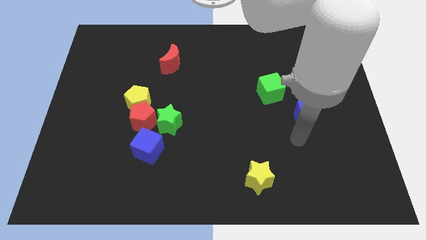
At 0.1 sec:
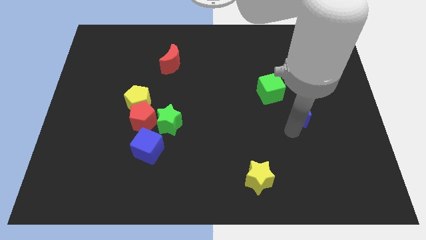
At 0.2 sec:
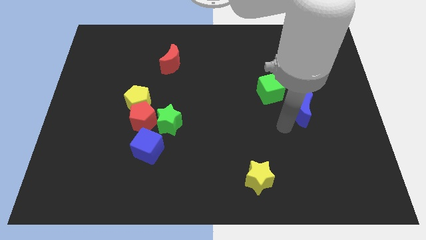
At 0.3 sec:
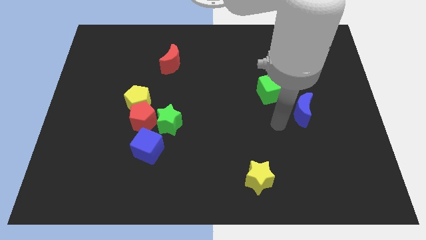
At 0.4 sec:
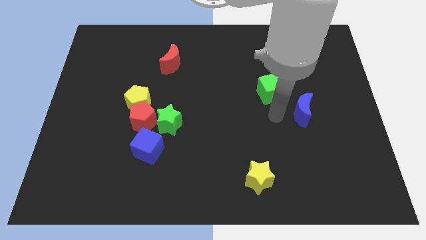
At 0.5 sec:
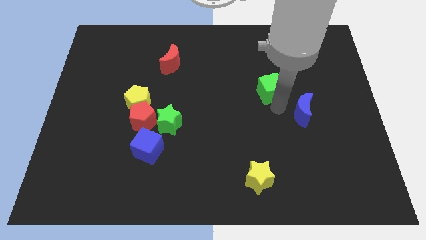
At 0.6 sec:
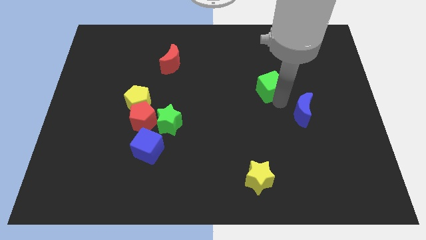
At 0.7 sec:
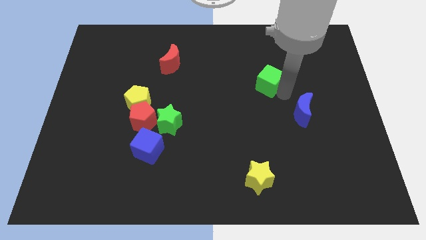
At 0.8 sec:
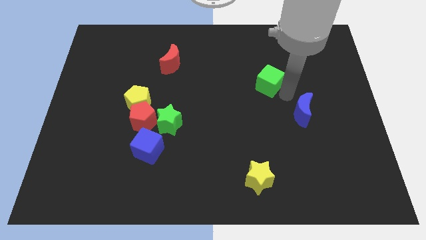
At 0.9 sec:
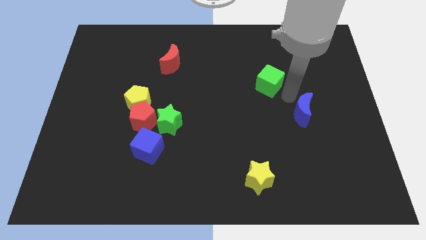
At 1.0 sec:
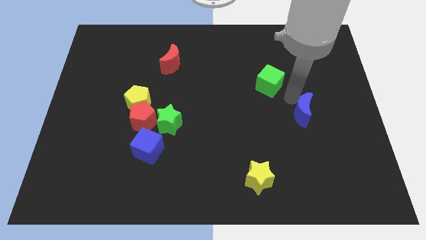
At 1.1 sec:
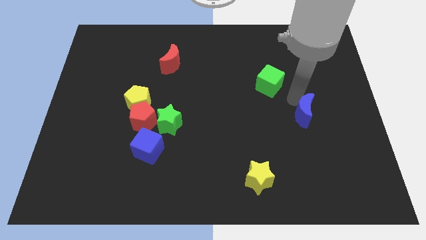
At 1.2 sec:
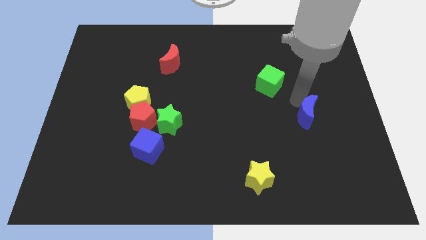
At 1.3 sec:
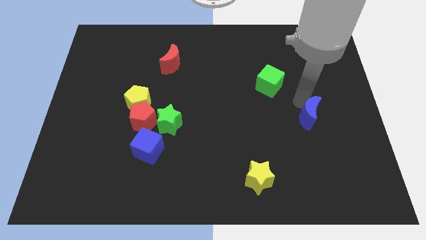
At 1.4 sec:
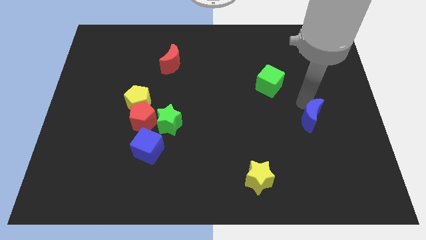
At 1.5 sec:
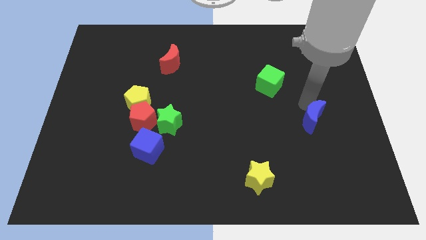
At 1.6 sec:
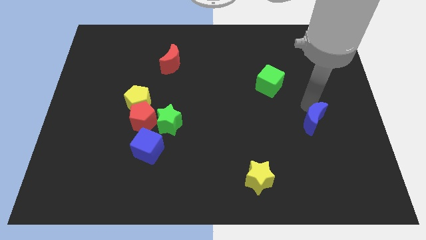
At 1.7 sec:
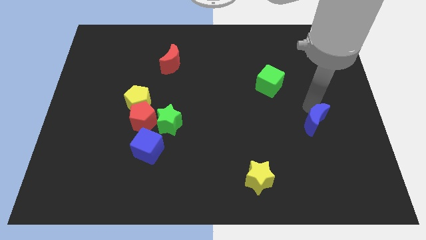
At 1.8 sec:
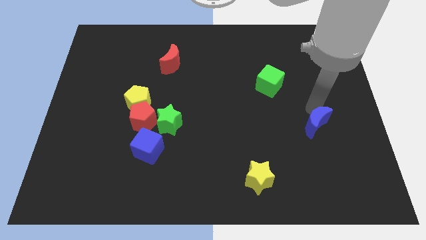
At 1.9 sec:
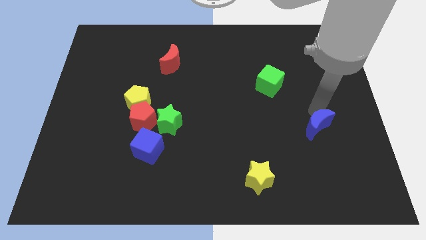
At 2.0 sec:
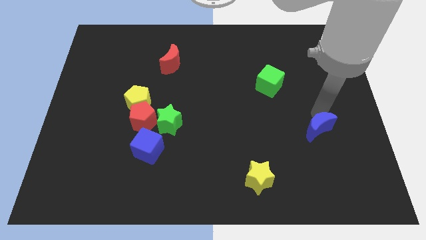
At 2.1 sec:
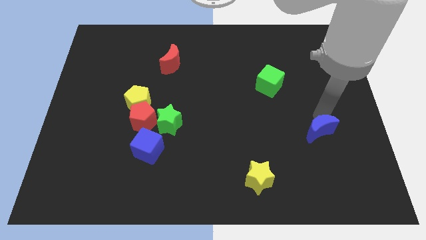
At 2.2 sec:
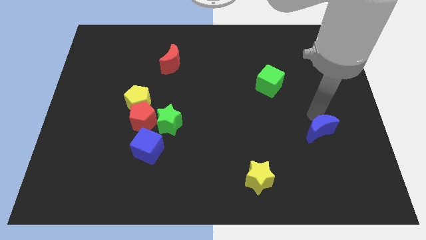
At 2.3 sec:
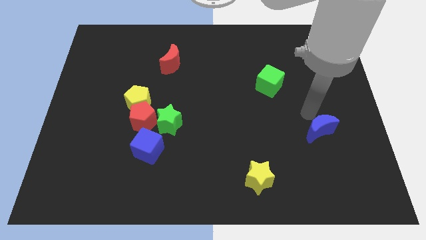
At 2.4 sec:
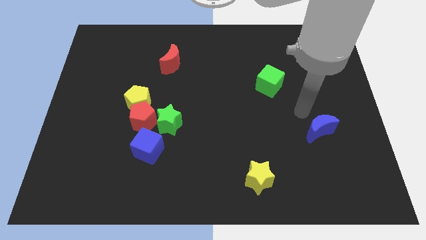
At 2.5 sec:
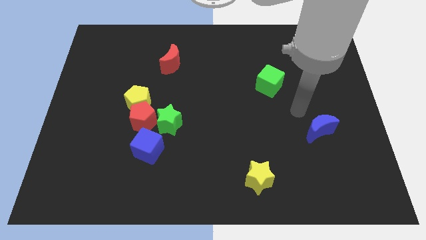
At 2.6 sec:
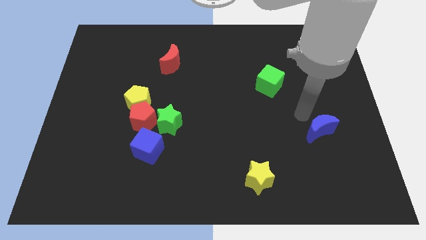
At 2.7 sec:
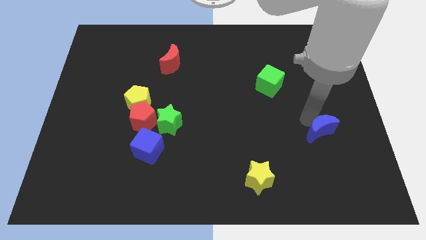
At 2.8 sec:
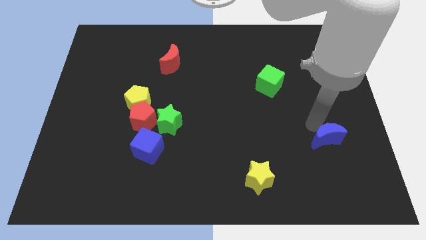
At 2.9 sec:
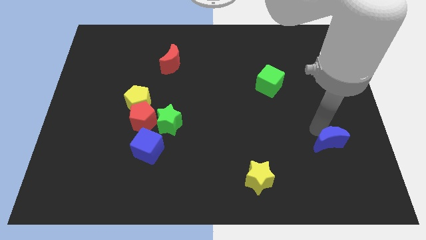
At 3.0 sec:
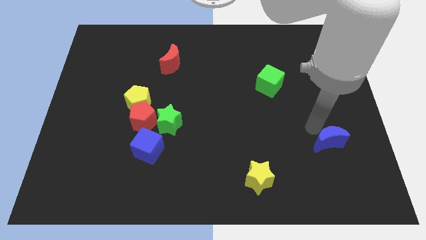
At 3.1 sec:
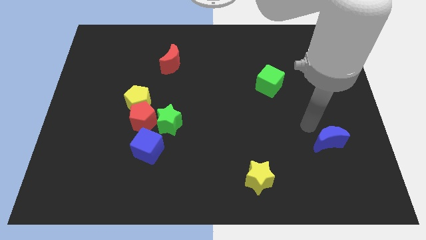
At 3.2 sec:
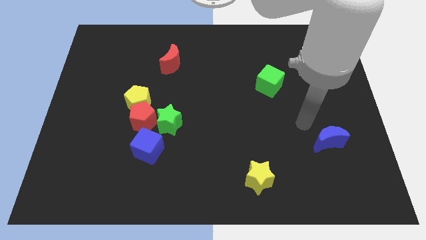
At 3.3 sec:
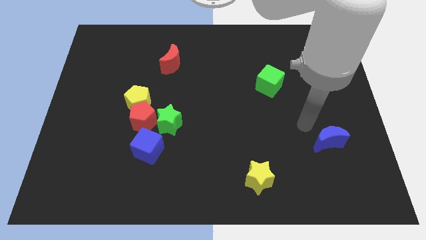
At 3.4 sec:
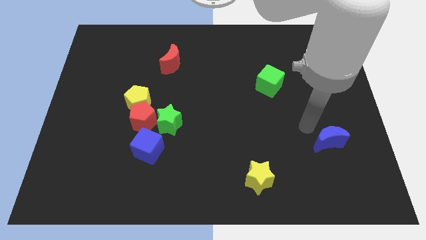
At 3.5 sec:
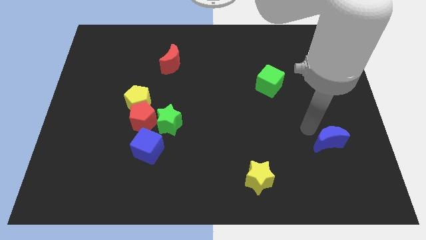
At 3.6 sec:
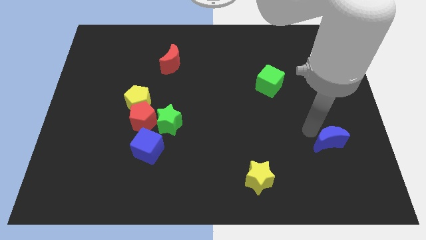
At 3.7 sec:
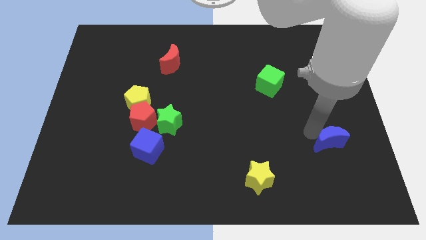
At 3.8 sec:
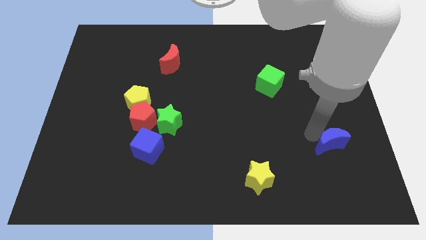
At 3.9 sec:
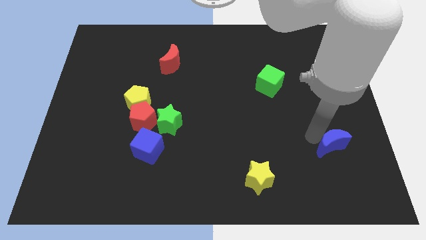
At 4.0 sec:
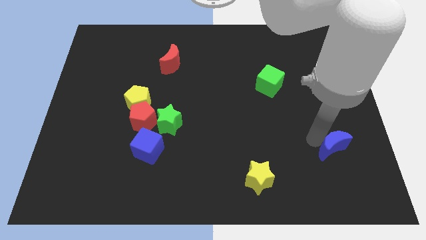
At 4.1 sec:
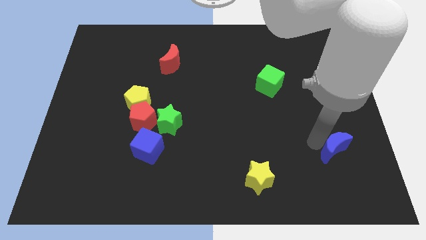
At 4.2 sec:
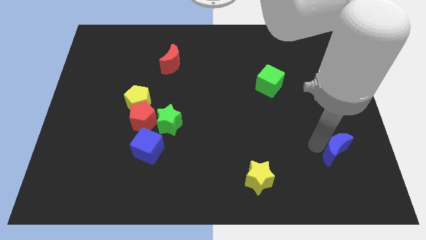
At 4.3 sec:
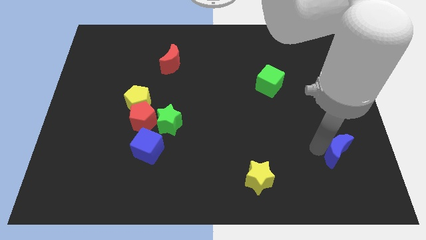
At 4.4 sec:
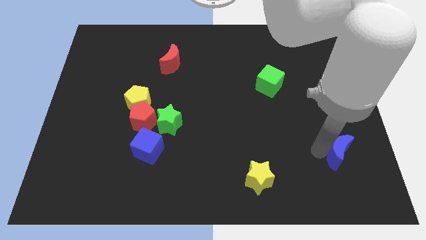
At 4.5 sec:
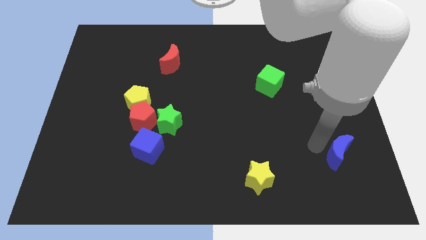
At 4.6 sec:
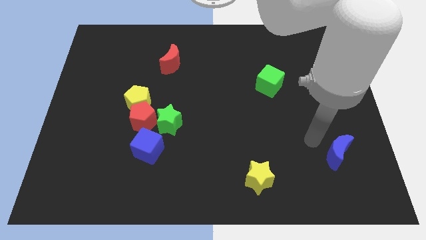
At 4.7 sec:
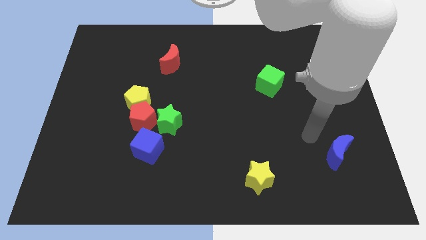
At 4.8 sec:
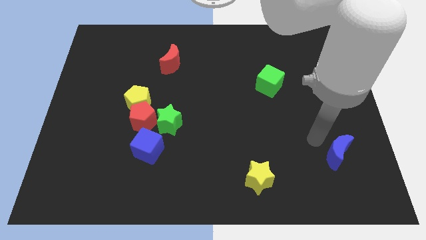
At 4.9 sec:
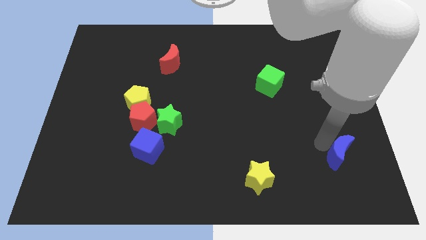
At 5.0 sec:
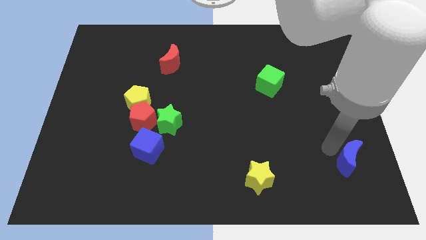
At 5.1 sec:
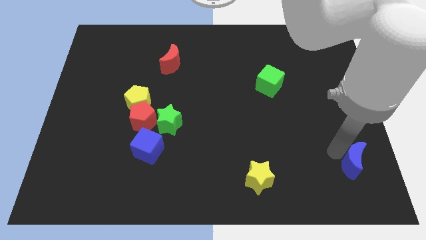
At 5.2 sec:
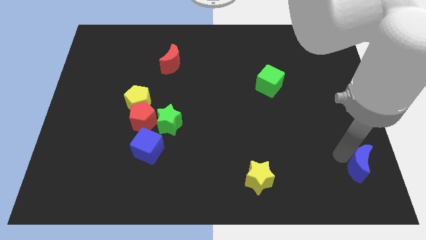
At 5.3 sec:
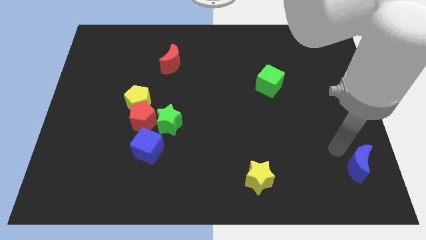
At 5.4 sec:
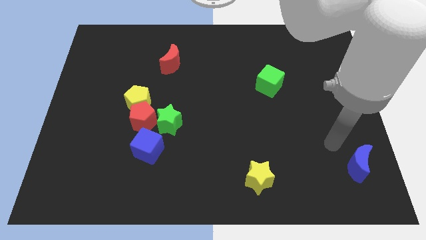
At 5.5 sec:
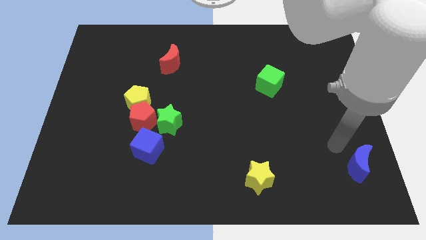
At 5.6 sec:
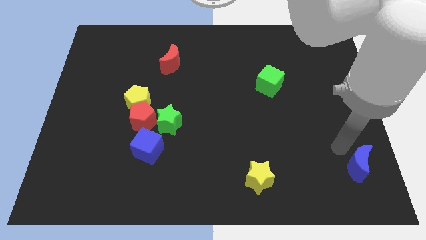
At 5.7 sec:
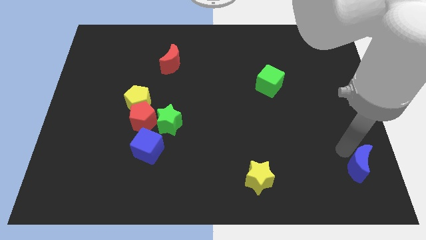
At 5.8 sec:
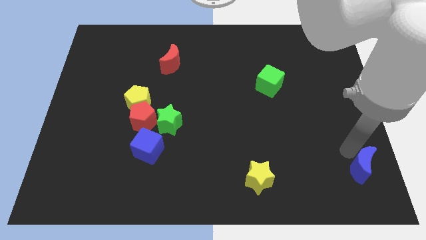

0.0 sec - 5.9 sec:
slide the blue moon to the bottom right
